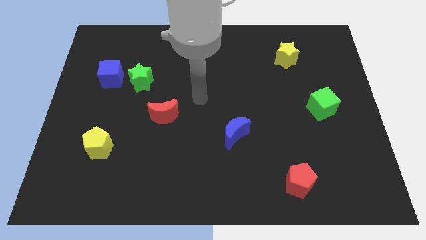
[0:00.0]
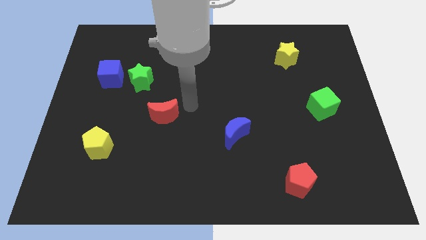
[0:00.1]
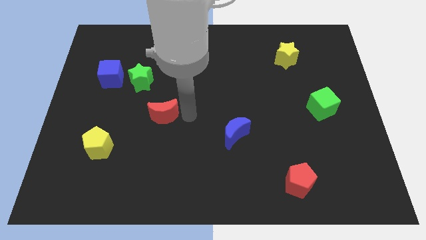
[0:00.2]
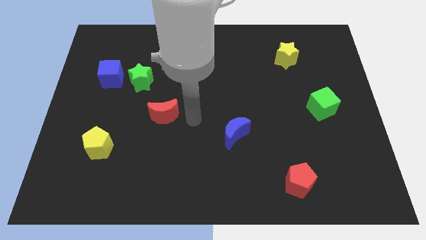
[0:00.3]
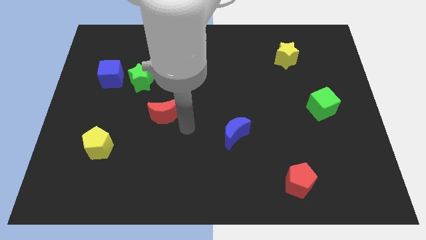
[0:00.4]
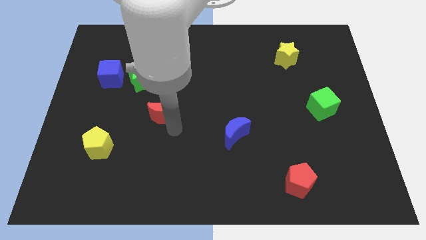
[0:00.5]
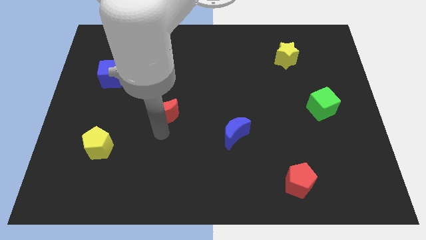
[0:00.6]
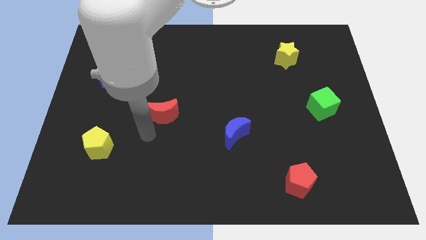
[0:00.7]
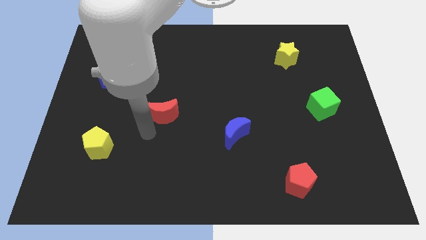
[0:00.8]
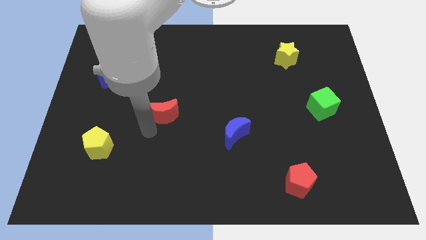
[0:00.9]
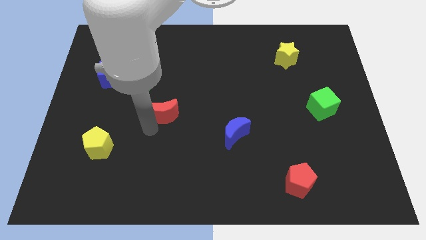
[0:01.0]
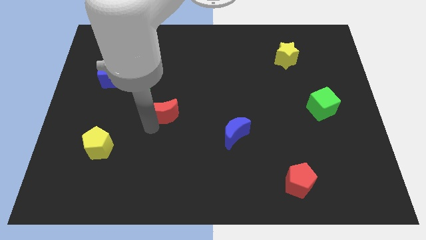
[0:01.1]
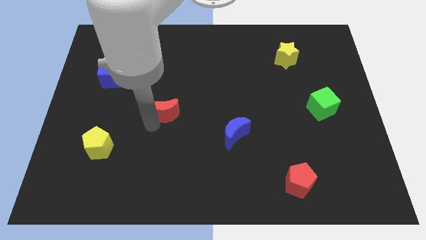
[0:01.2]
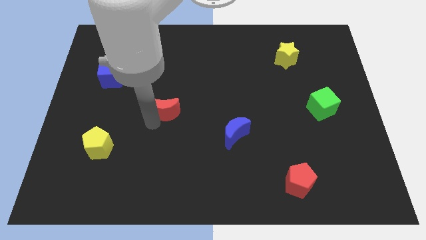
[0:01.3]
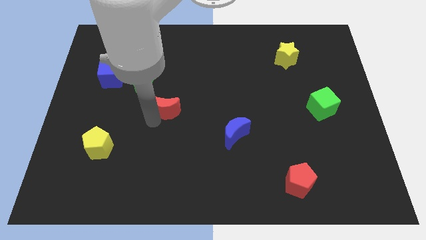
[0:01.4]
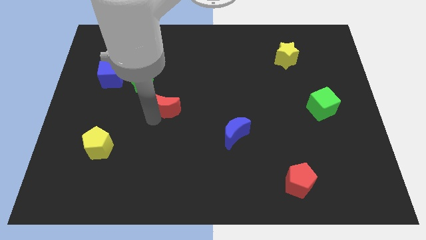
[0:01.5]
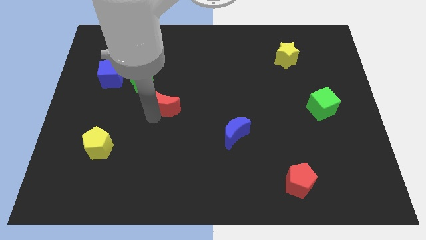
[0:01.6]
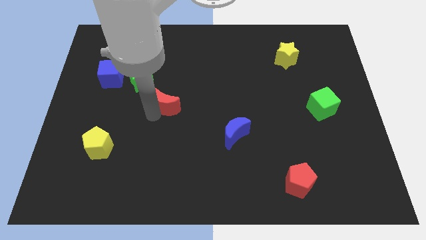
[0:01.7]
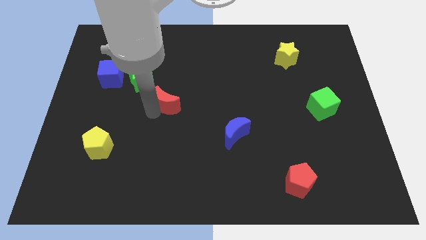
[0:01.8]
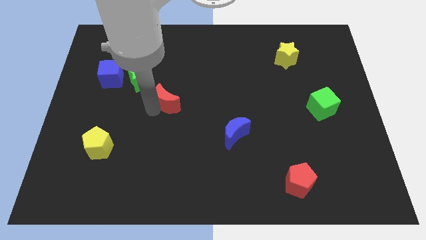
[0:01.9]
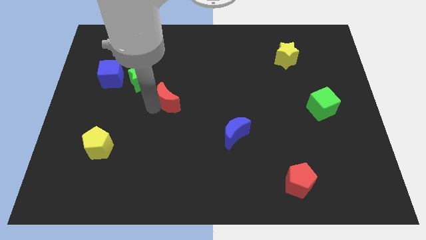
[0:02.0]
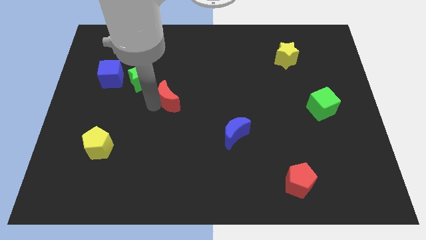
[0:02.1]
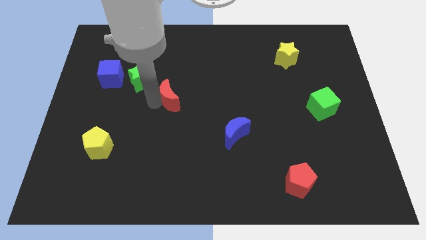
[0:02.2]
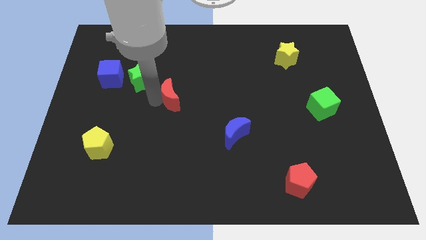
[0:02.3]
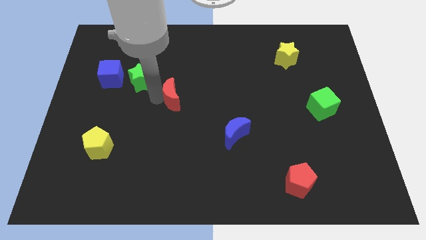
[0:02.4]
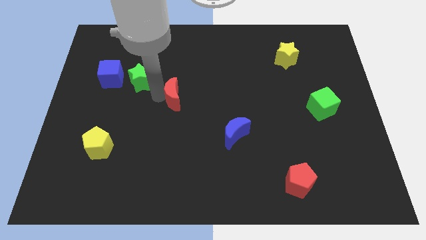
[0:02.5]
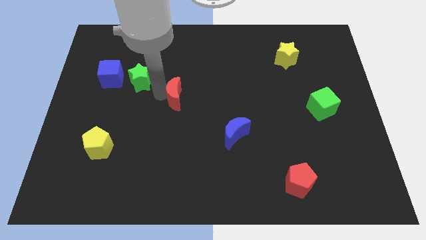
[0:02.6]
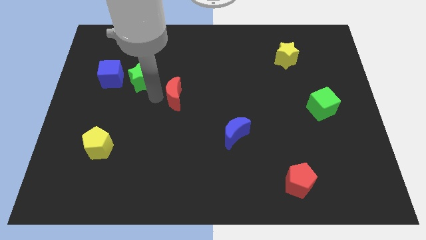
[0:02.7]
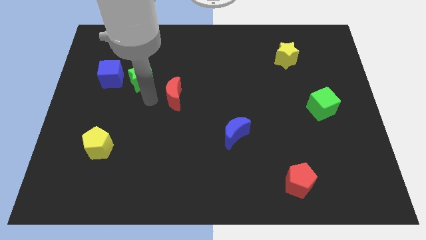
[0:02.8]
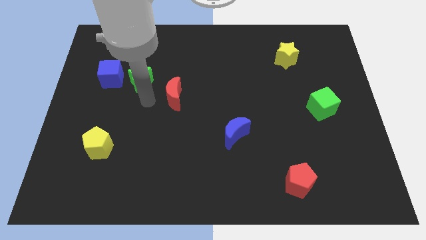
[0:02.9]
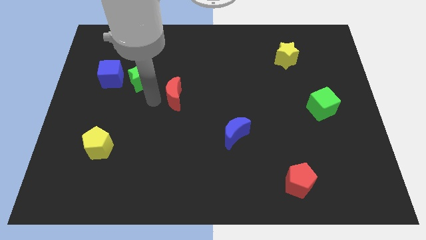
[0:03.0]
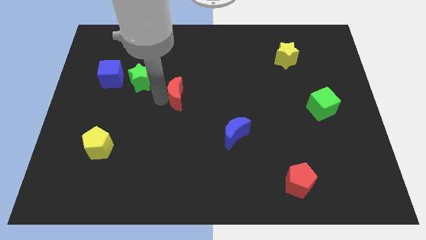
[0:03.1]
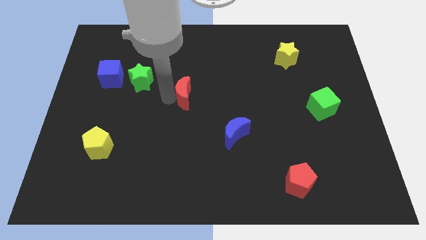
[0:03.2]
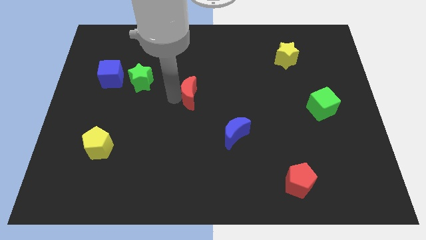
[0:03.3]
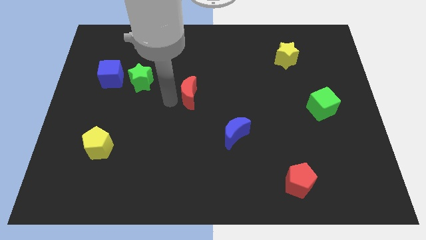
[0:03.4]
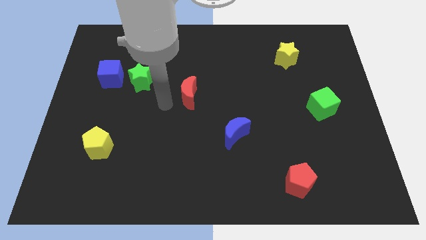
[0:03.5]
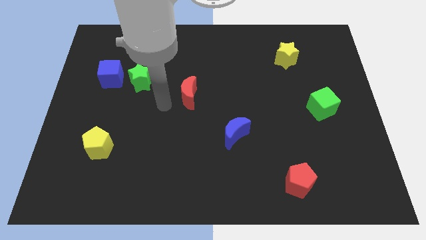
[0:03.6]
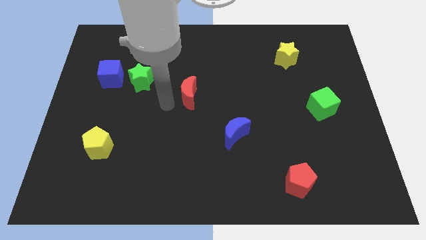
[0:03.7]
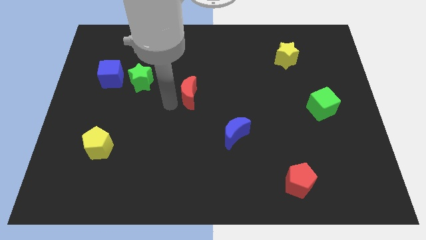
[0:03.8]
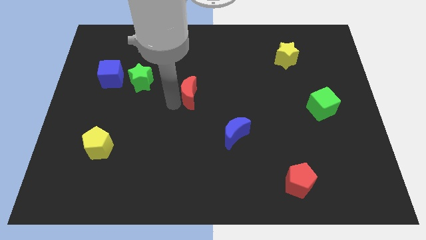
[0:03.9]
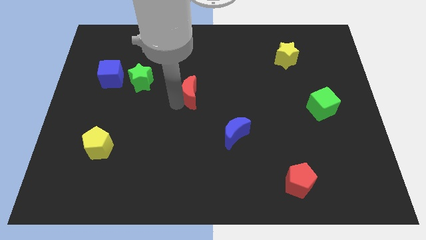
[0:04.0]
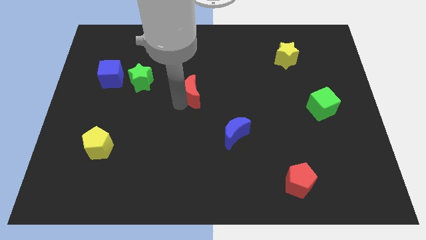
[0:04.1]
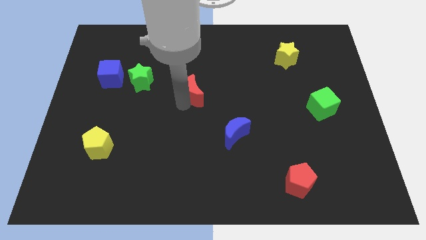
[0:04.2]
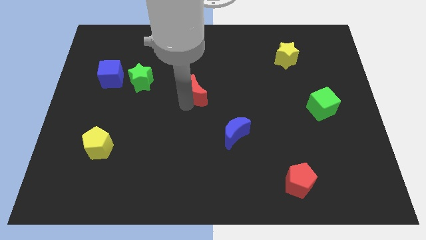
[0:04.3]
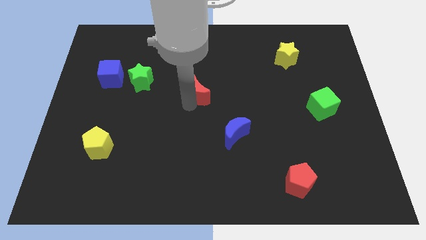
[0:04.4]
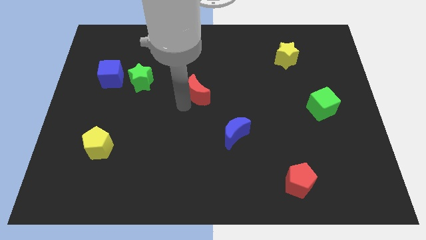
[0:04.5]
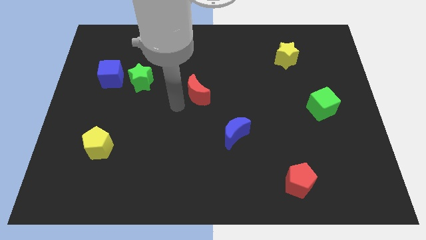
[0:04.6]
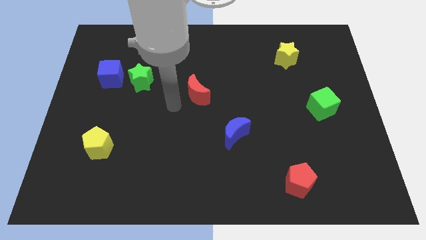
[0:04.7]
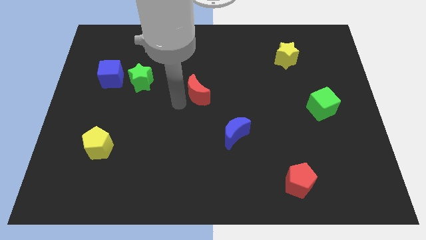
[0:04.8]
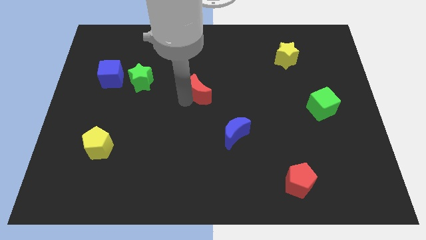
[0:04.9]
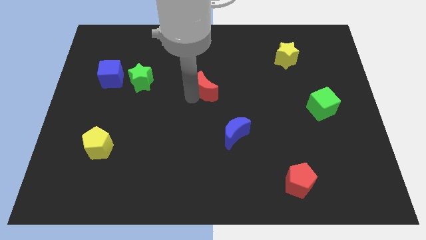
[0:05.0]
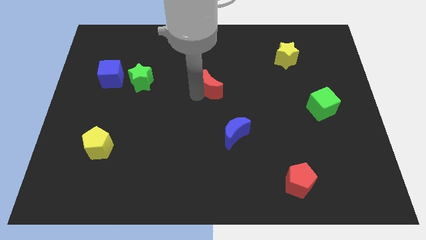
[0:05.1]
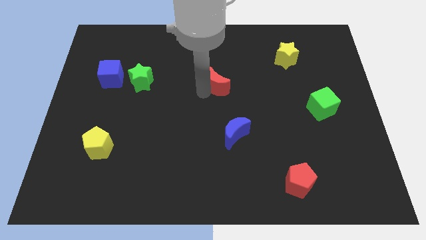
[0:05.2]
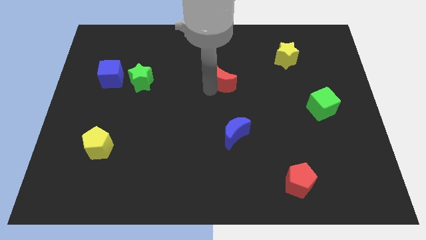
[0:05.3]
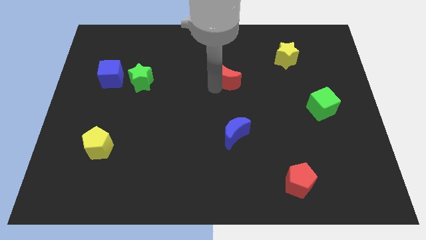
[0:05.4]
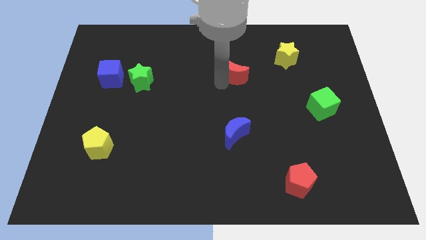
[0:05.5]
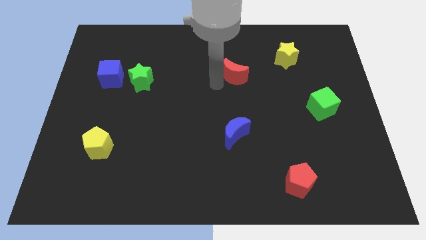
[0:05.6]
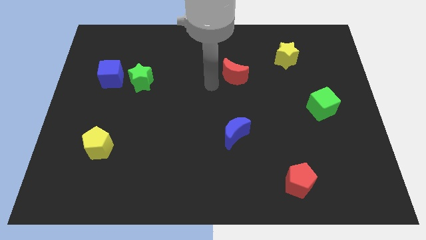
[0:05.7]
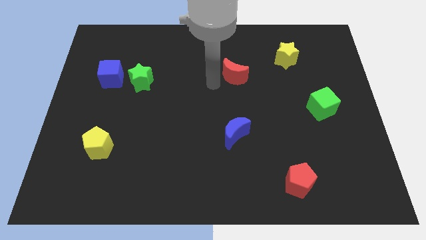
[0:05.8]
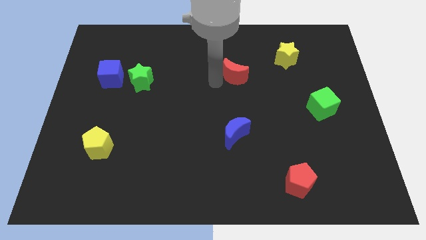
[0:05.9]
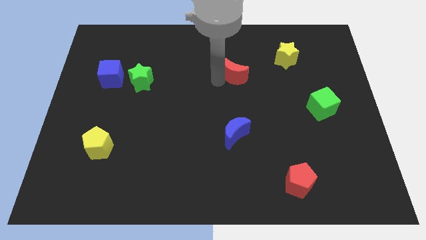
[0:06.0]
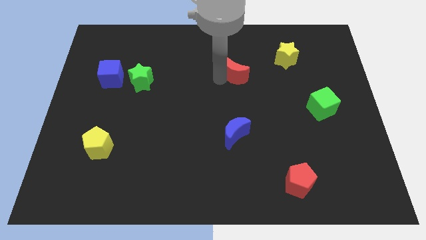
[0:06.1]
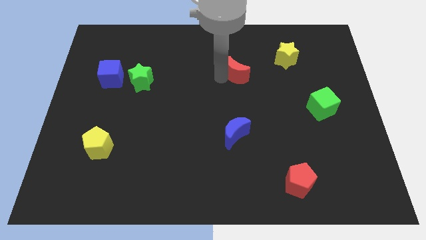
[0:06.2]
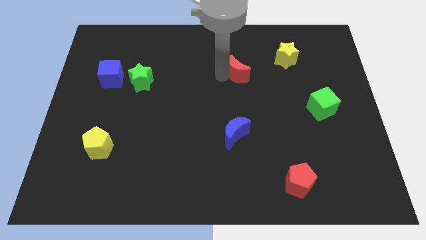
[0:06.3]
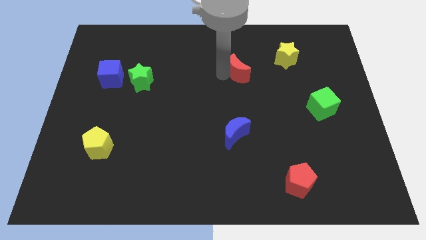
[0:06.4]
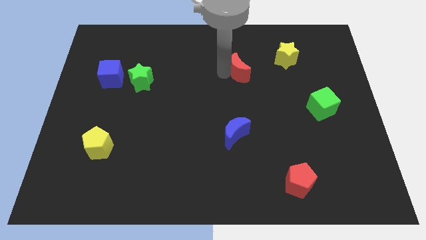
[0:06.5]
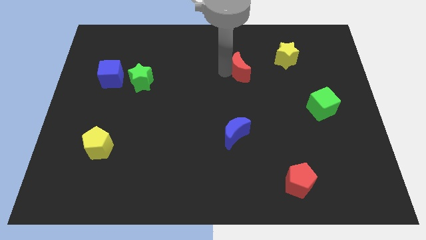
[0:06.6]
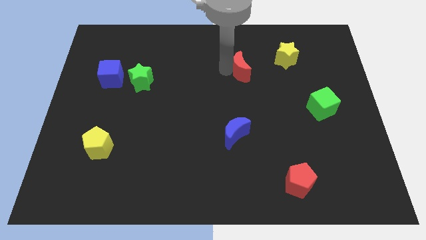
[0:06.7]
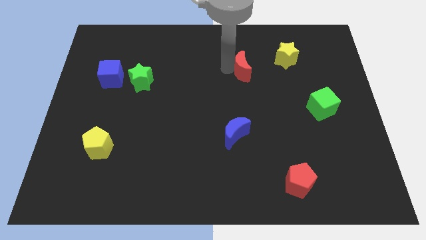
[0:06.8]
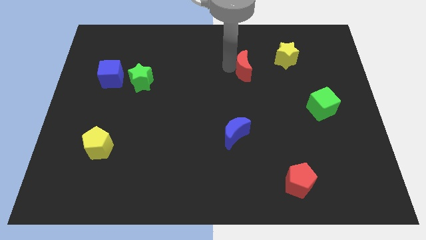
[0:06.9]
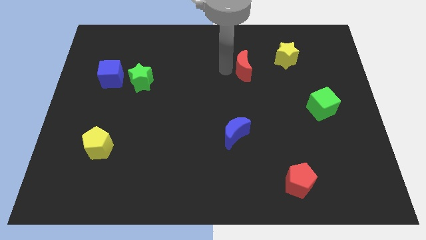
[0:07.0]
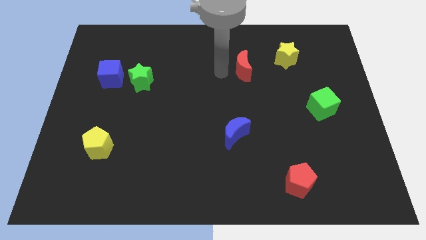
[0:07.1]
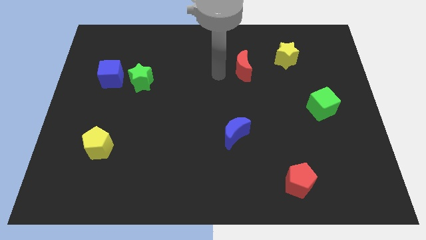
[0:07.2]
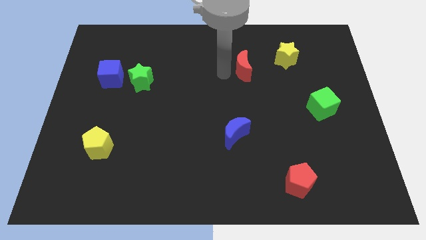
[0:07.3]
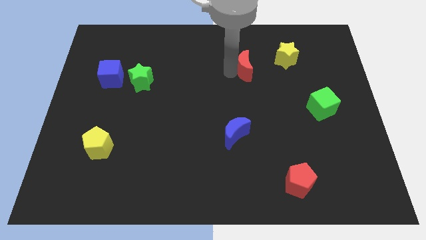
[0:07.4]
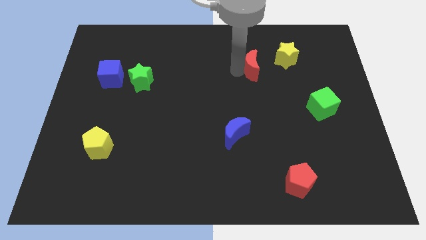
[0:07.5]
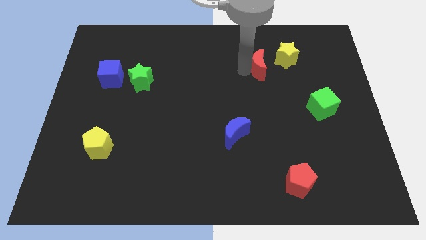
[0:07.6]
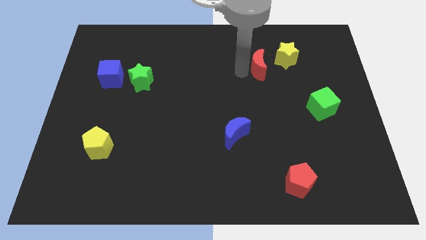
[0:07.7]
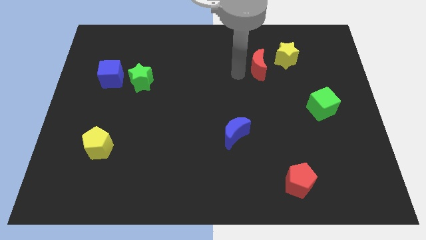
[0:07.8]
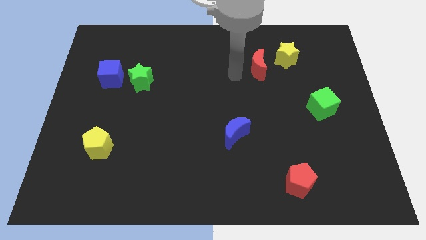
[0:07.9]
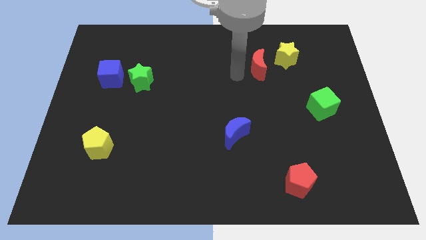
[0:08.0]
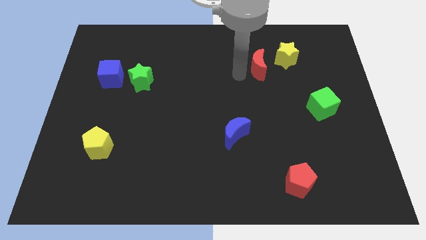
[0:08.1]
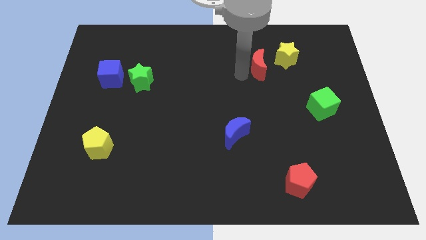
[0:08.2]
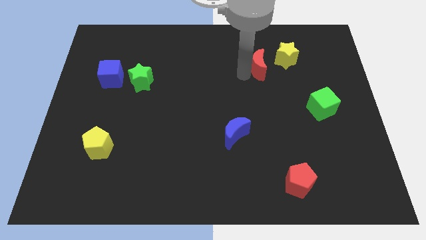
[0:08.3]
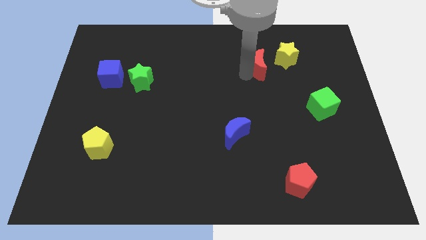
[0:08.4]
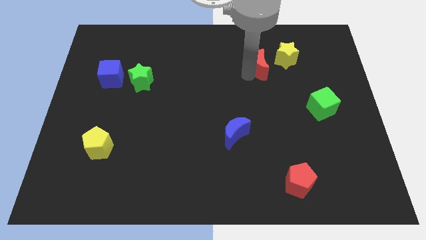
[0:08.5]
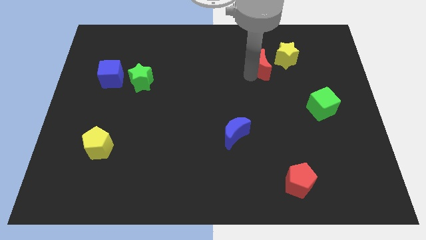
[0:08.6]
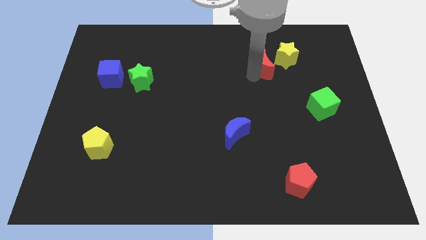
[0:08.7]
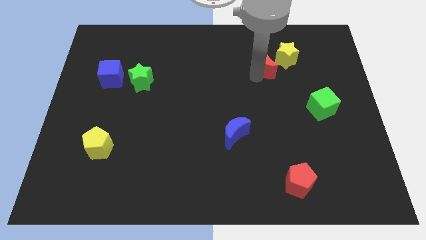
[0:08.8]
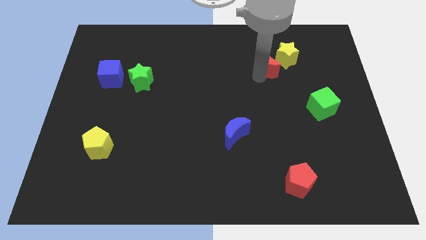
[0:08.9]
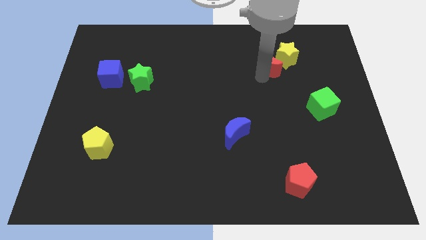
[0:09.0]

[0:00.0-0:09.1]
push the red moon close to the yellow star
